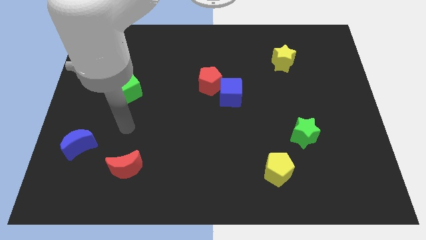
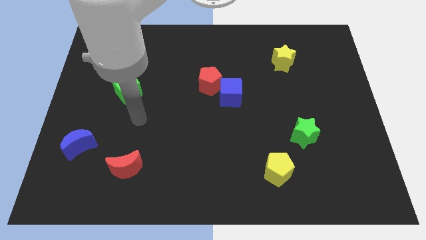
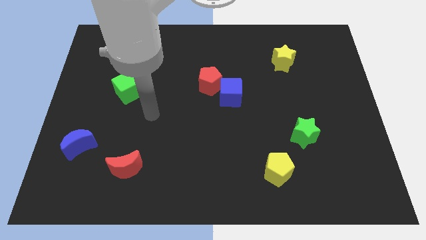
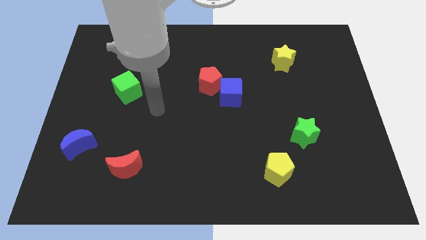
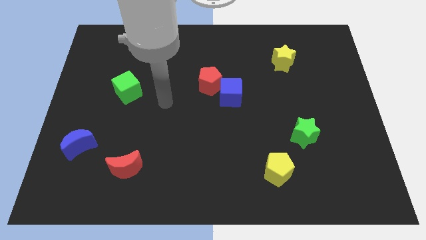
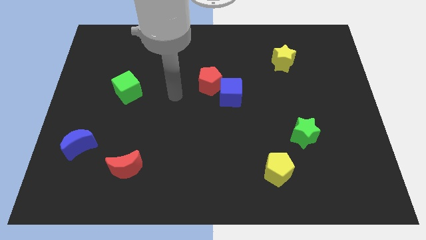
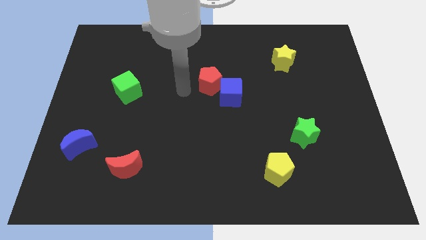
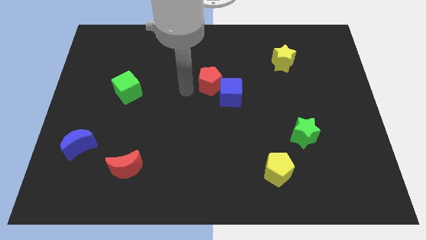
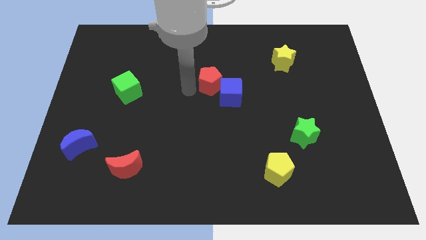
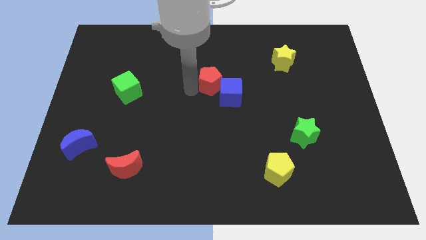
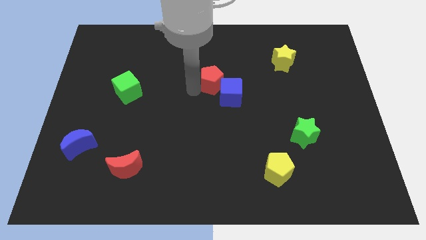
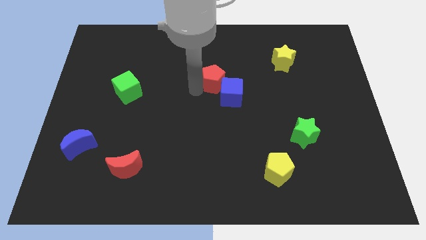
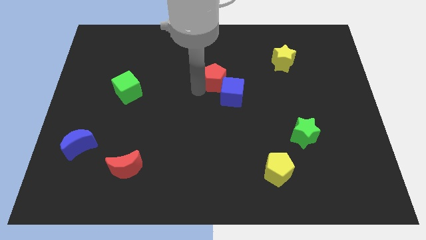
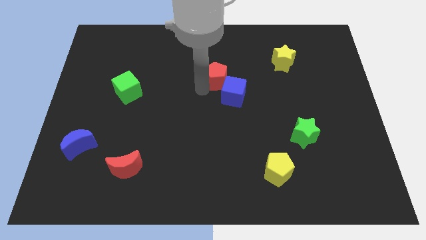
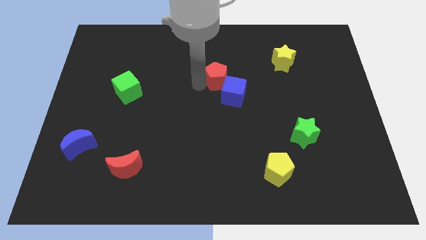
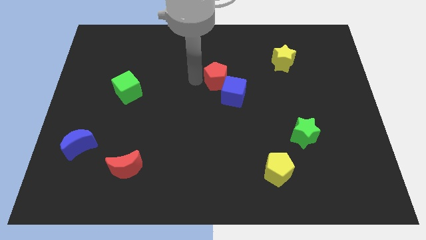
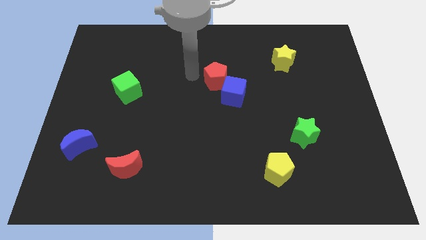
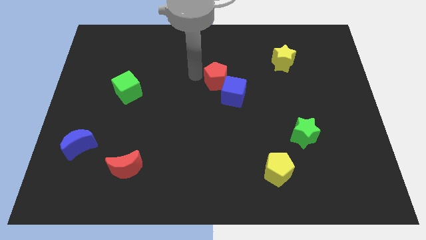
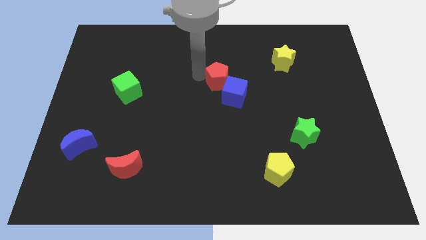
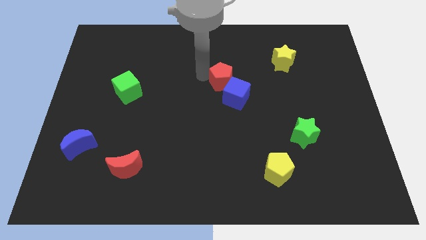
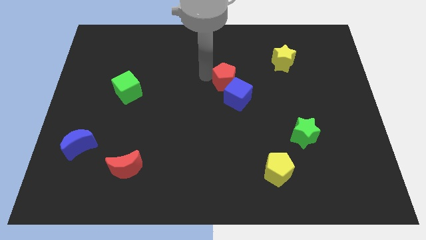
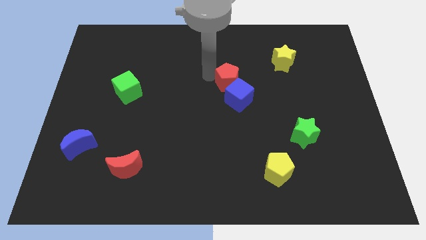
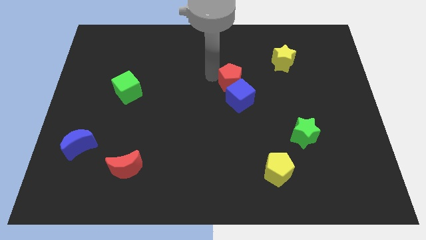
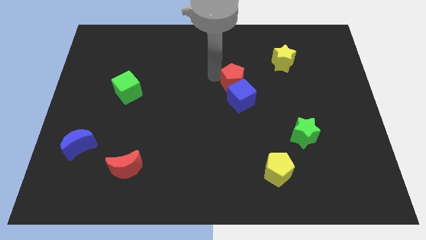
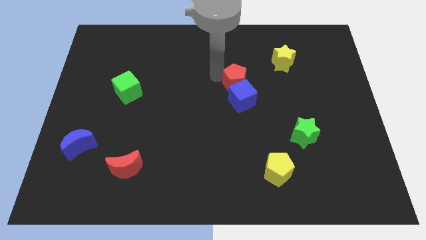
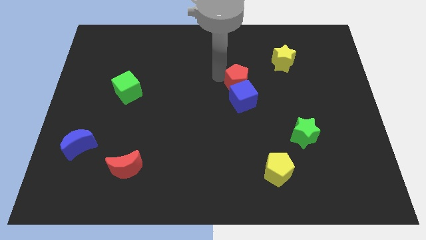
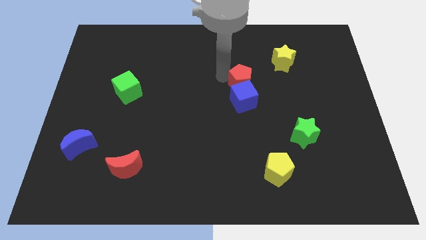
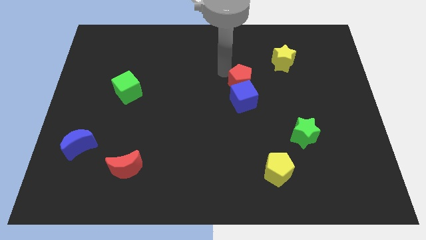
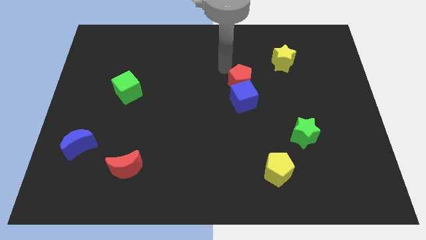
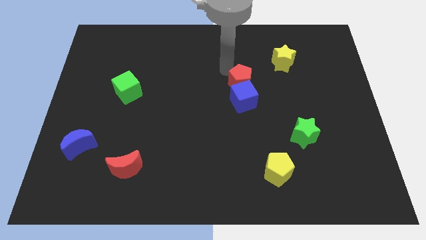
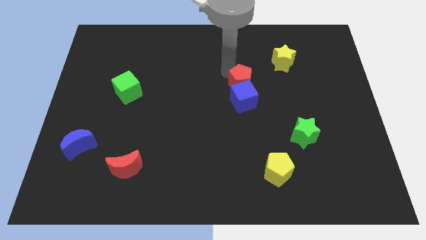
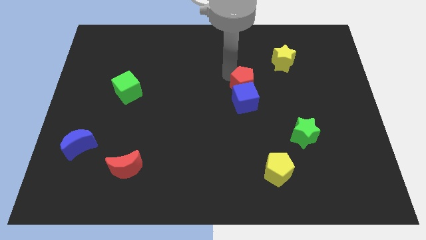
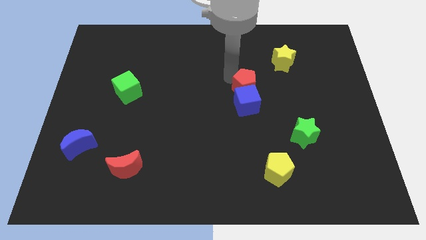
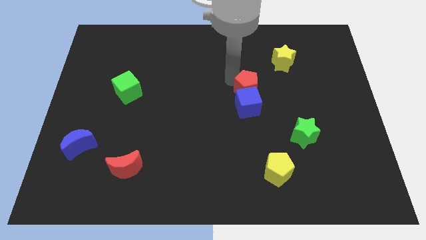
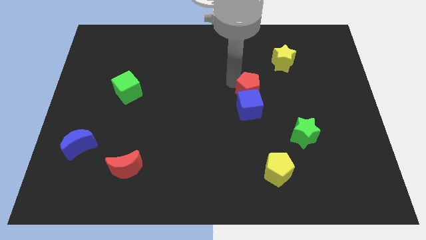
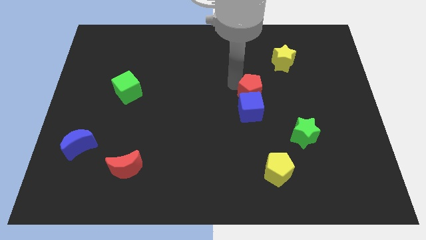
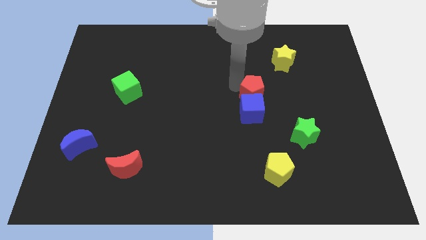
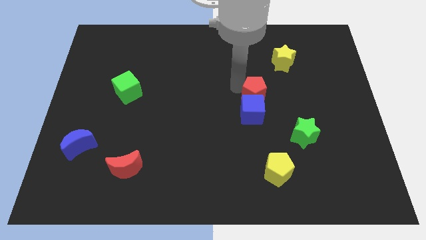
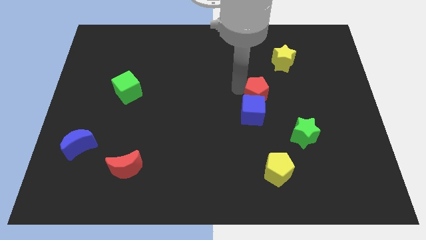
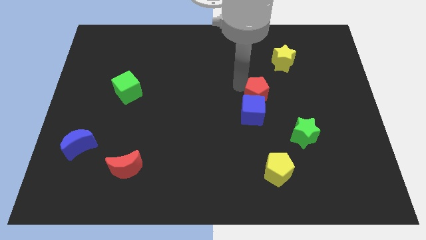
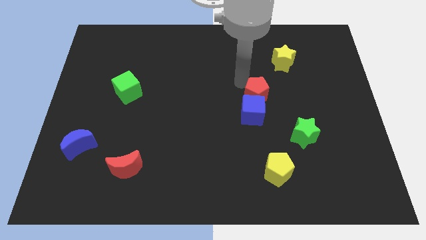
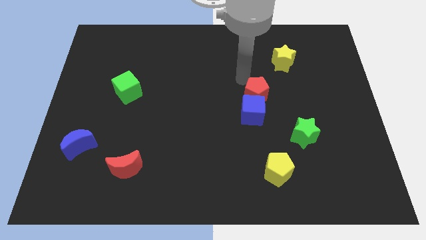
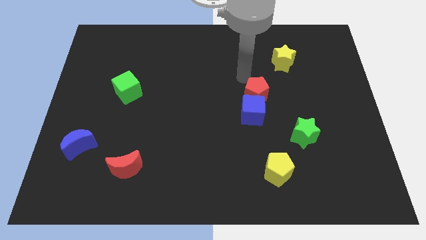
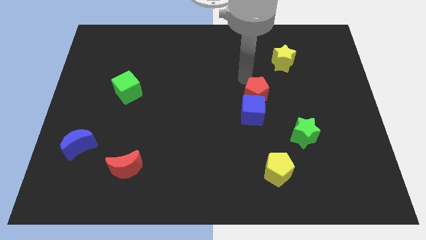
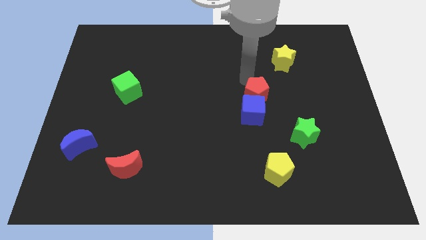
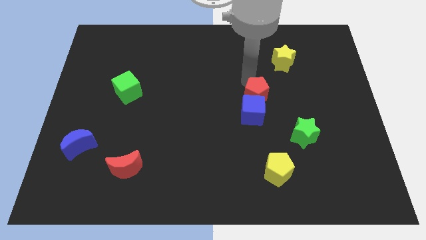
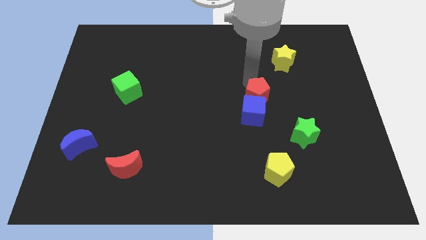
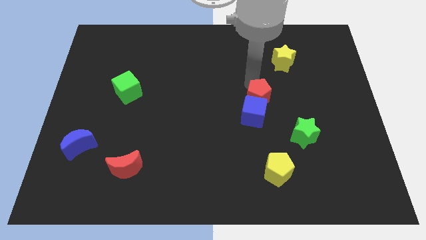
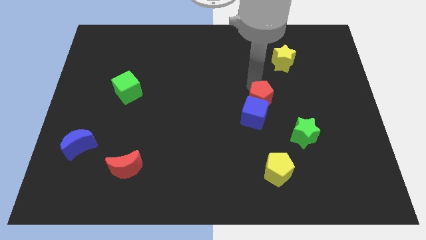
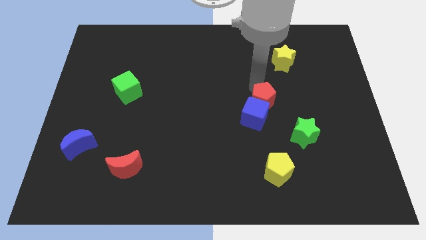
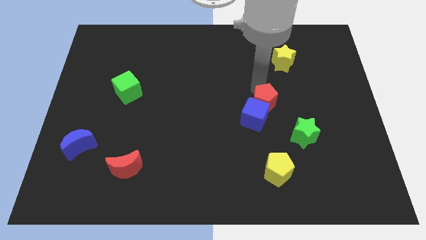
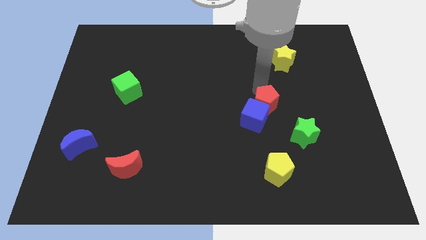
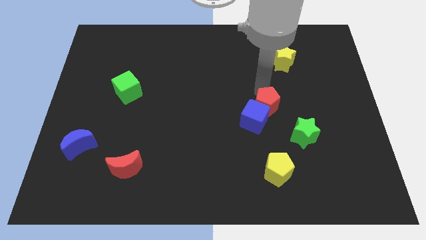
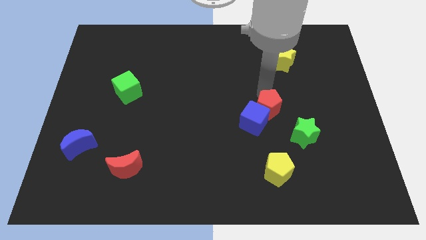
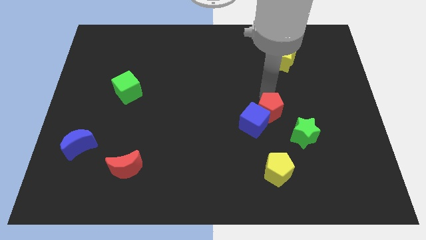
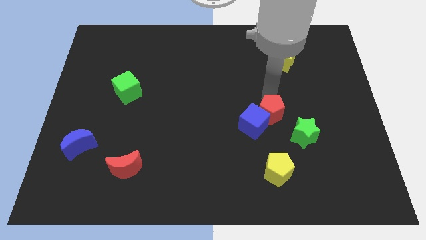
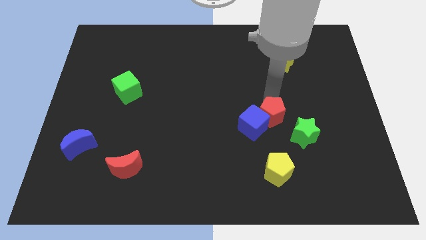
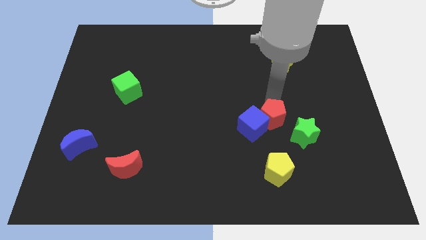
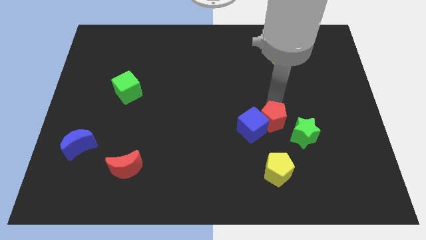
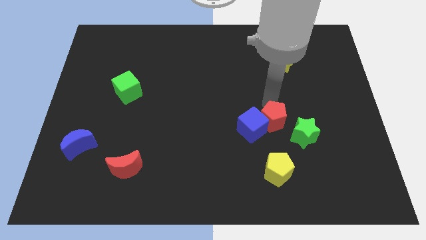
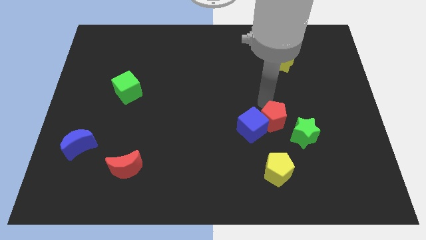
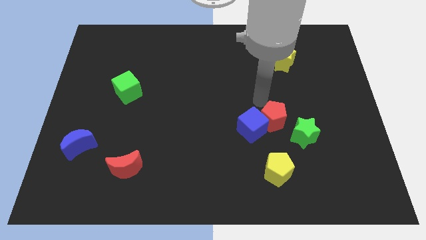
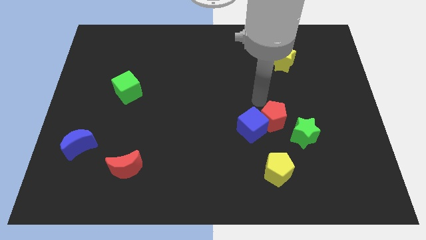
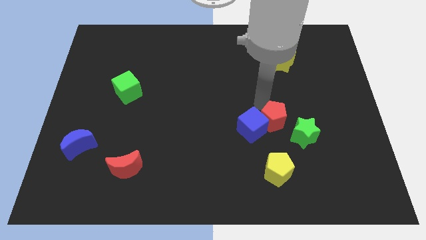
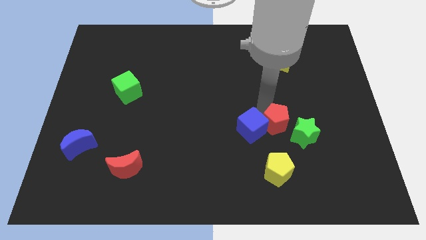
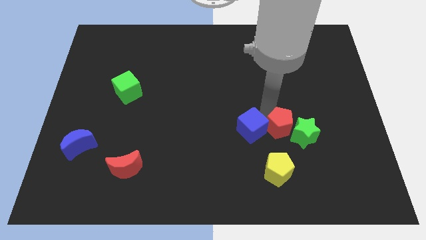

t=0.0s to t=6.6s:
move the red pentagon downwards and right diagonally

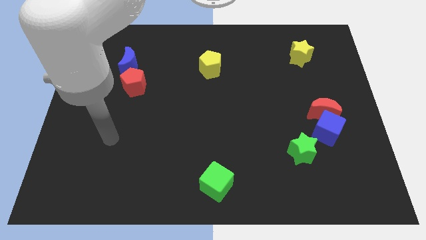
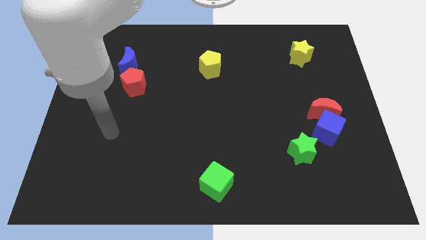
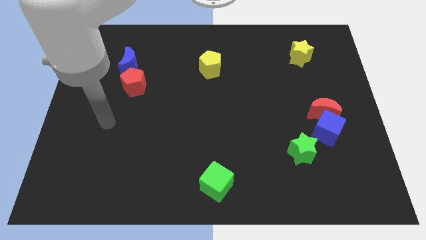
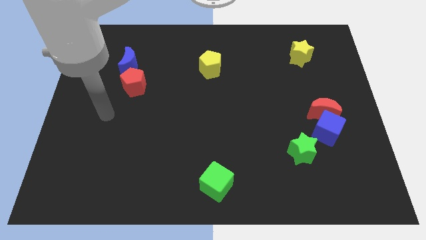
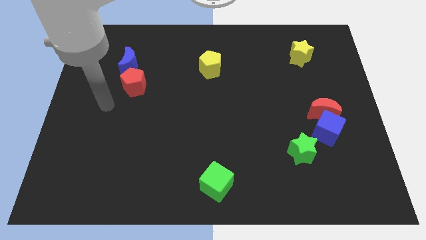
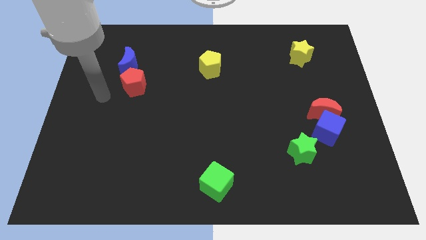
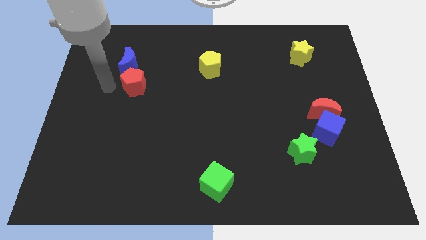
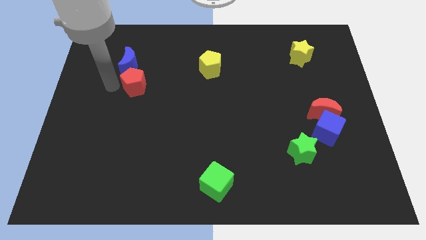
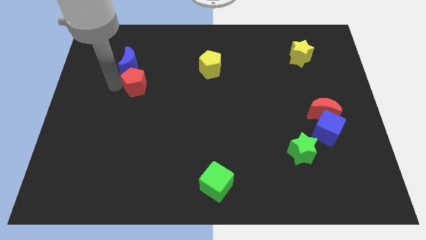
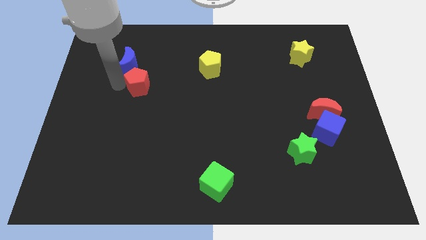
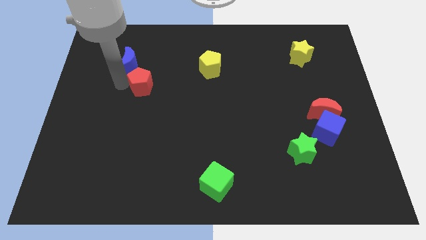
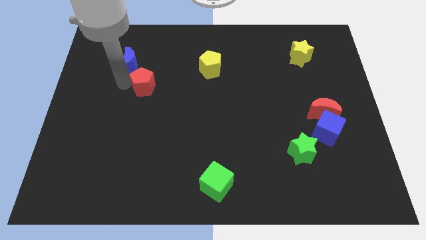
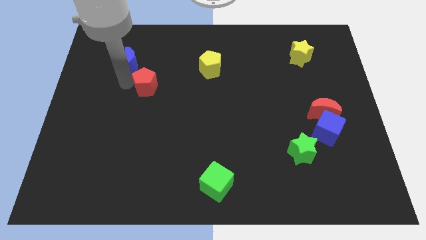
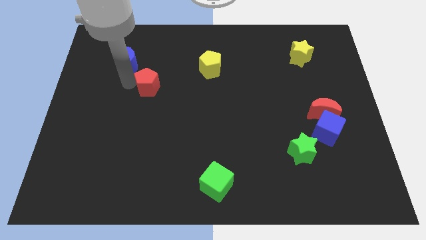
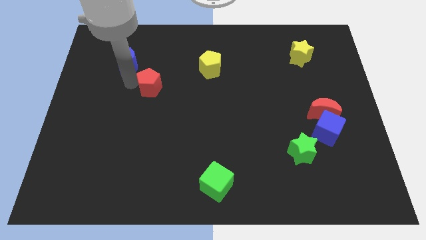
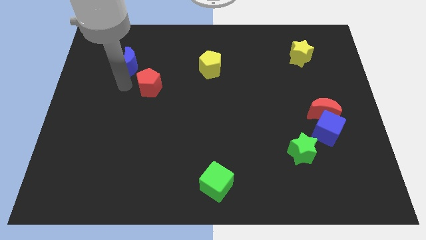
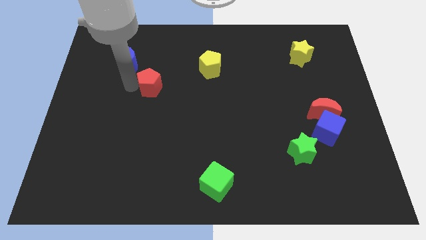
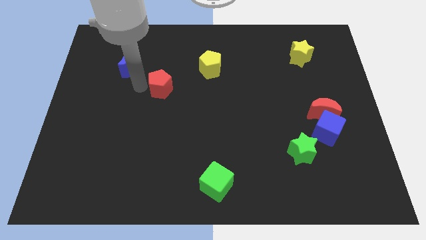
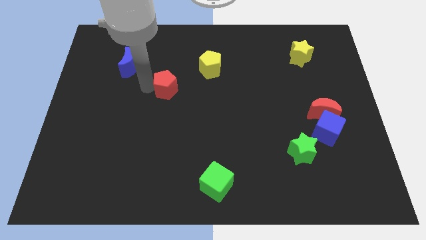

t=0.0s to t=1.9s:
slide the red pentagon a bit to the right
